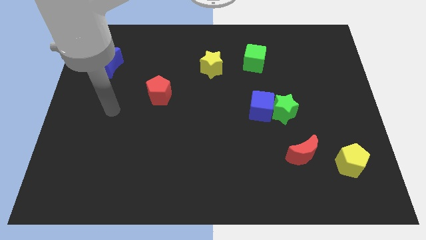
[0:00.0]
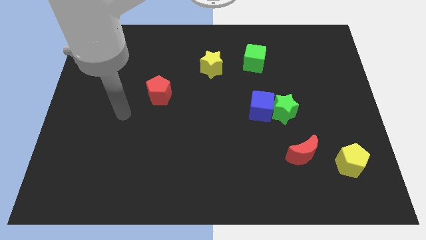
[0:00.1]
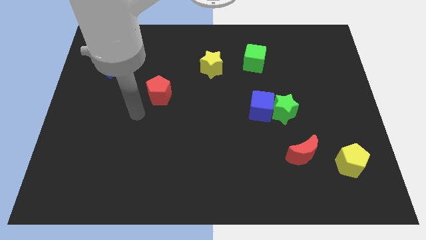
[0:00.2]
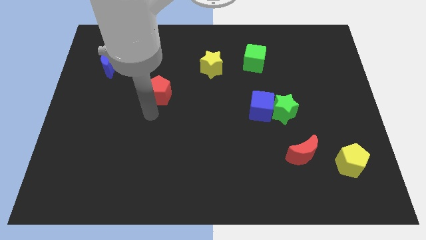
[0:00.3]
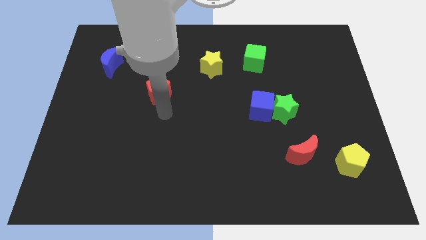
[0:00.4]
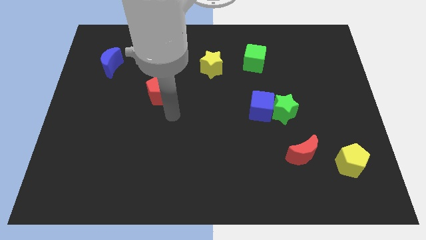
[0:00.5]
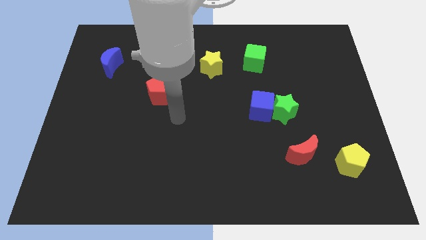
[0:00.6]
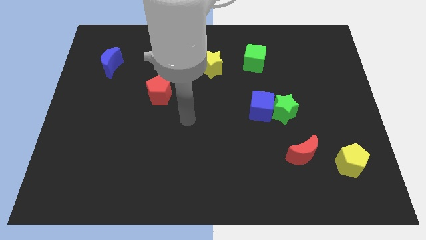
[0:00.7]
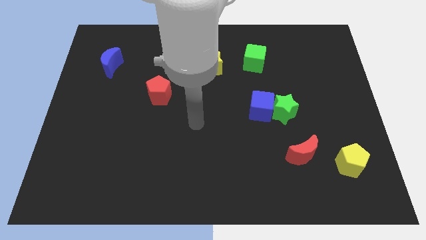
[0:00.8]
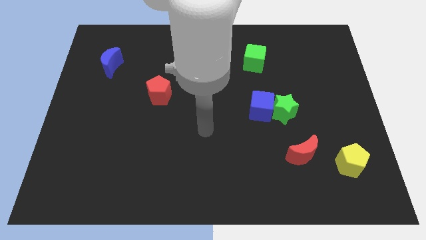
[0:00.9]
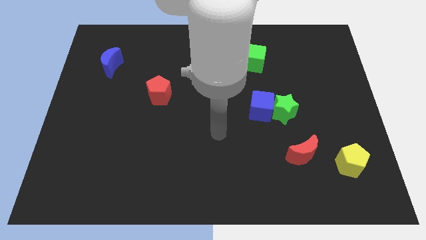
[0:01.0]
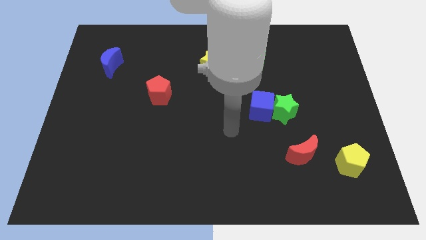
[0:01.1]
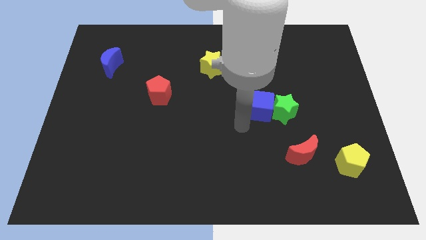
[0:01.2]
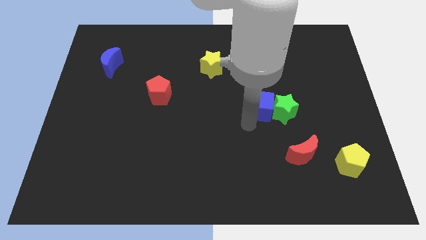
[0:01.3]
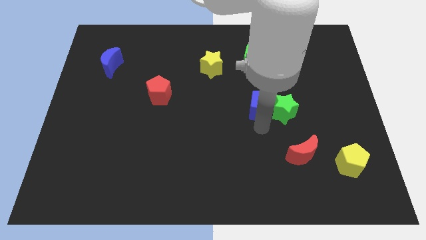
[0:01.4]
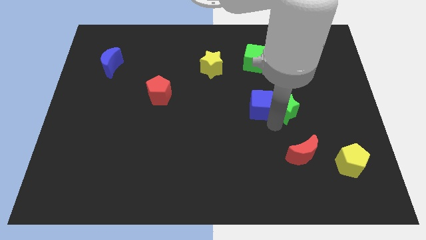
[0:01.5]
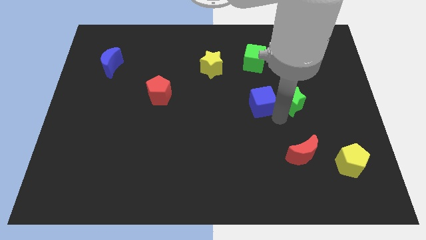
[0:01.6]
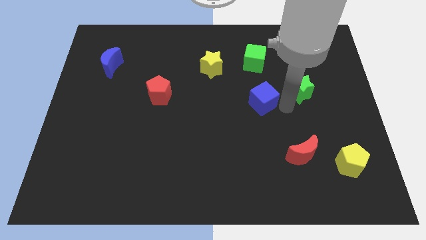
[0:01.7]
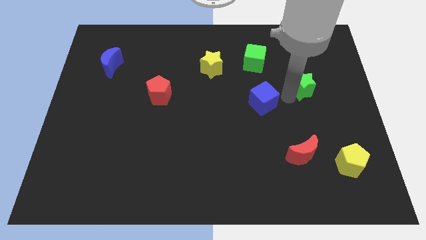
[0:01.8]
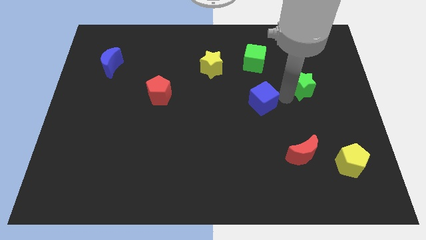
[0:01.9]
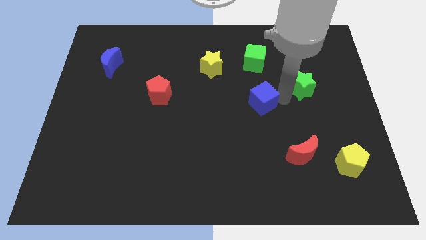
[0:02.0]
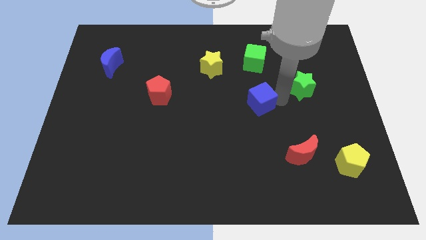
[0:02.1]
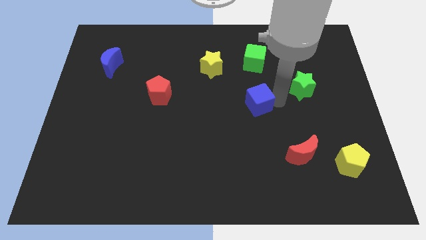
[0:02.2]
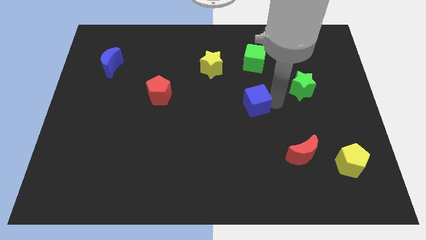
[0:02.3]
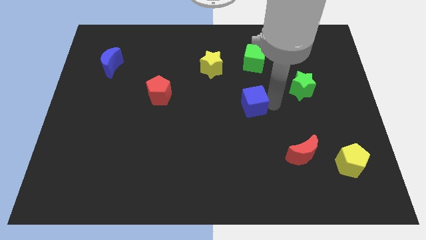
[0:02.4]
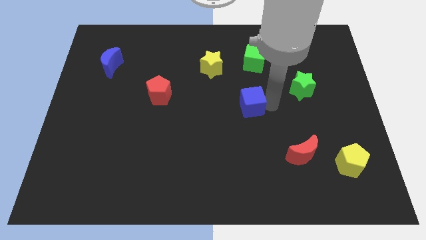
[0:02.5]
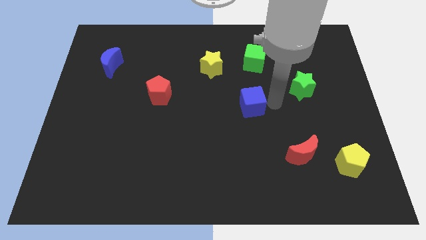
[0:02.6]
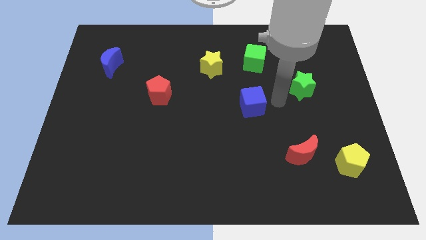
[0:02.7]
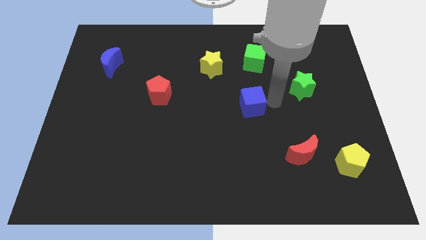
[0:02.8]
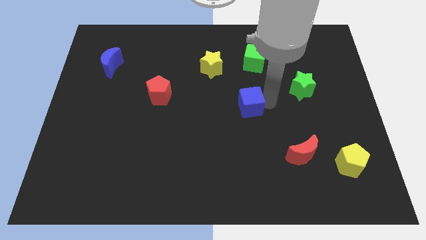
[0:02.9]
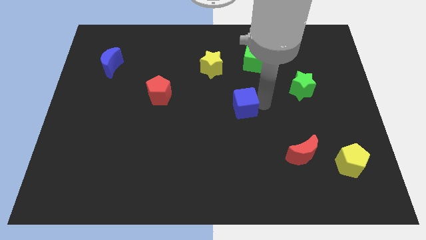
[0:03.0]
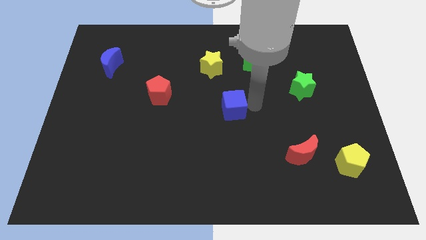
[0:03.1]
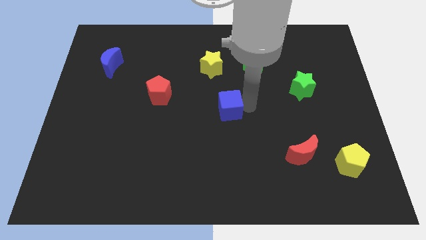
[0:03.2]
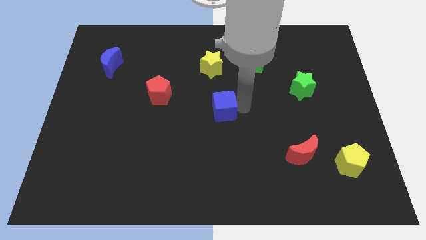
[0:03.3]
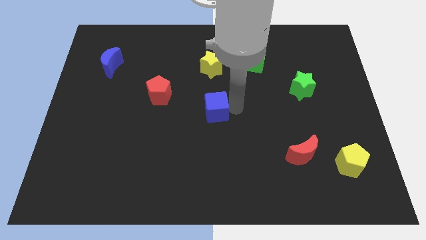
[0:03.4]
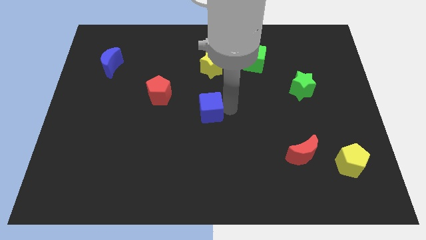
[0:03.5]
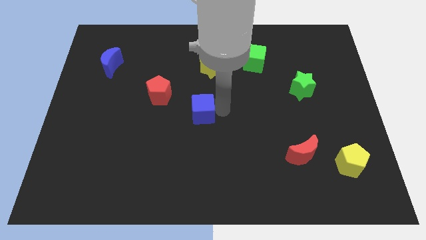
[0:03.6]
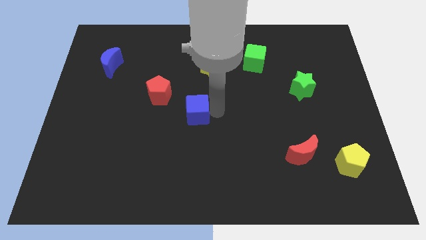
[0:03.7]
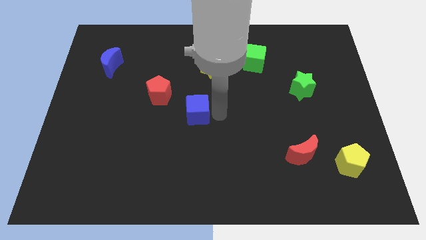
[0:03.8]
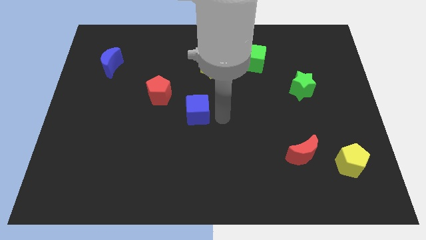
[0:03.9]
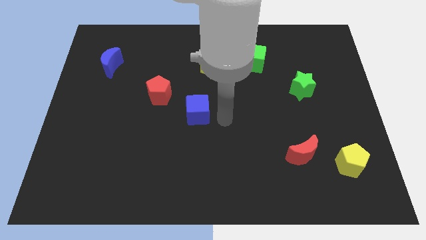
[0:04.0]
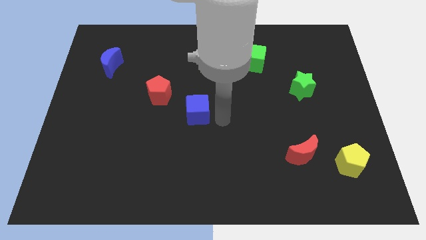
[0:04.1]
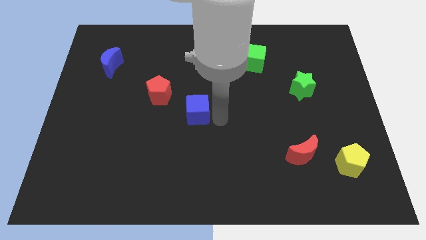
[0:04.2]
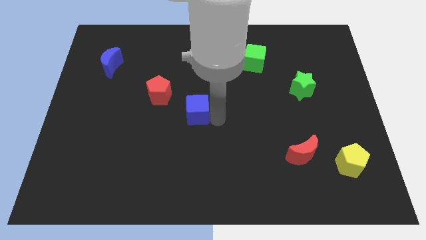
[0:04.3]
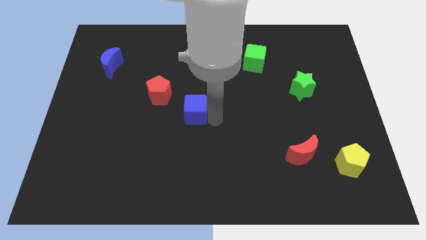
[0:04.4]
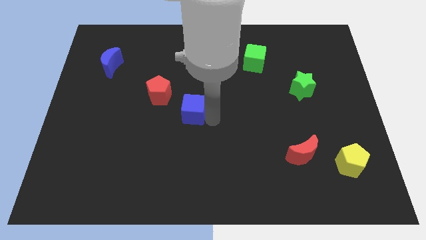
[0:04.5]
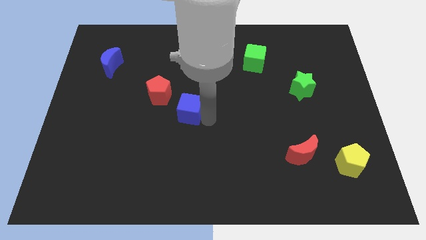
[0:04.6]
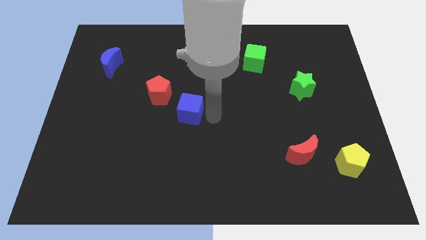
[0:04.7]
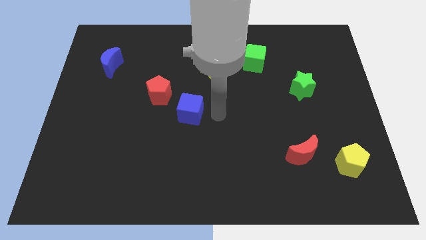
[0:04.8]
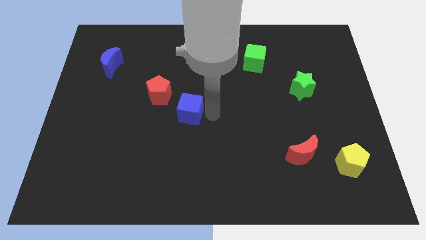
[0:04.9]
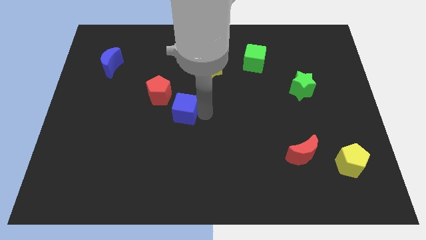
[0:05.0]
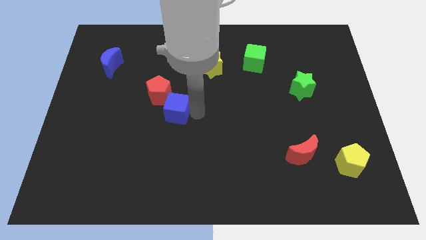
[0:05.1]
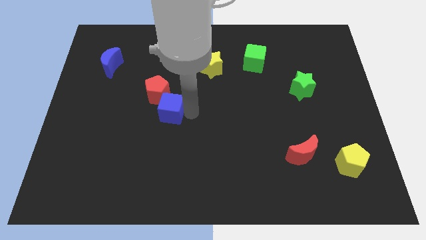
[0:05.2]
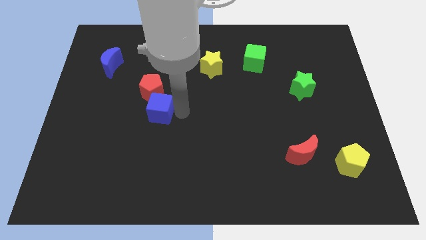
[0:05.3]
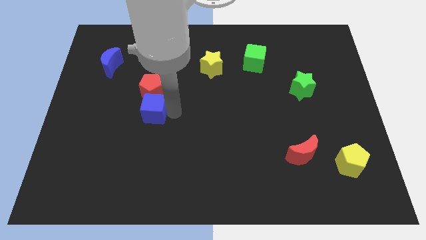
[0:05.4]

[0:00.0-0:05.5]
slide the blue cube diagonally down and to the left of the red pentagon
